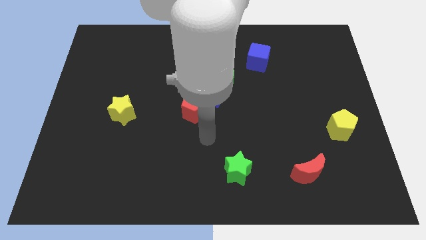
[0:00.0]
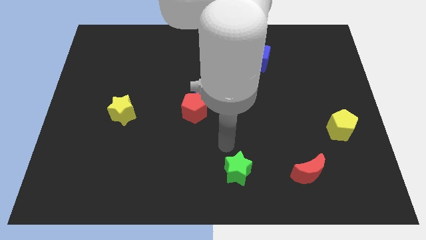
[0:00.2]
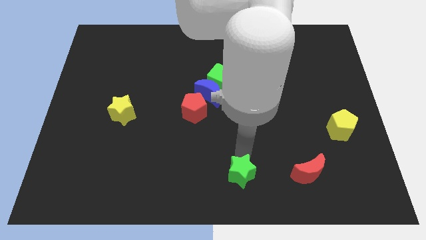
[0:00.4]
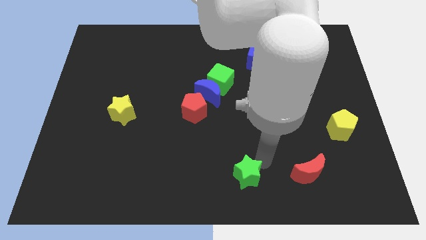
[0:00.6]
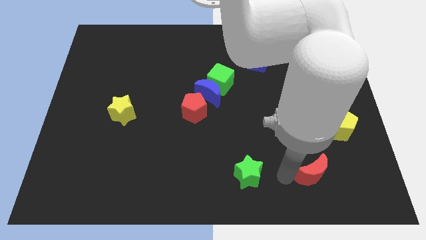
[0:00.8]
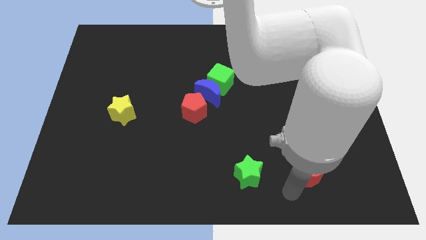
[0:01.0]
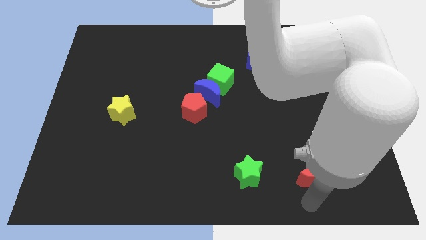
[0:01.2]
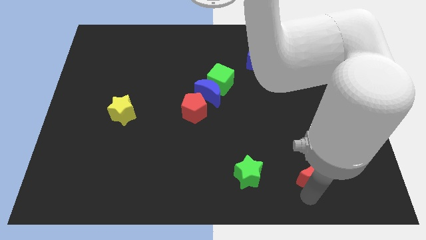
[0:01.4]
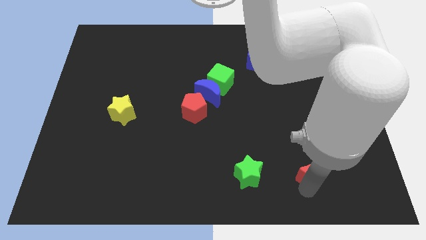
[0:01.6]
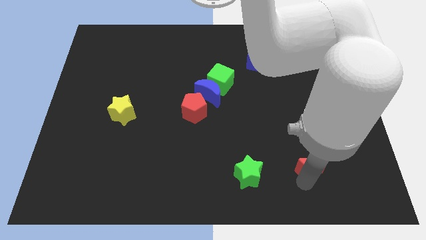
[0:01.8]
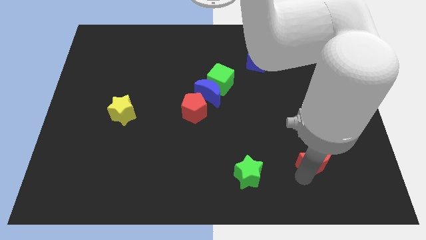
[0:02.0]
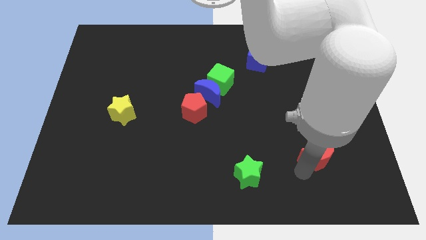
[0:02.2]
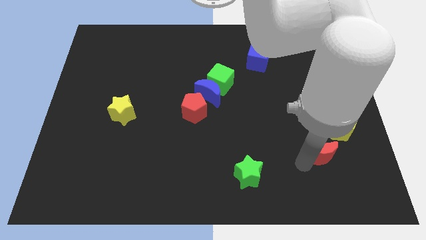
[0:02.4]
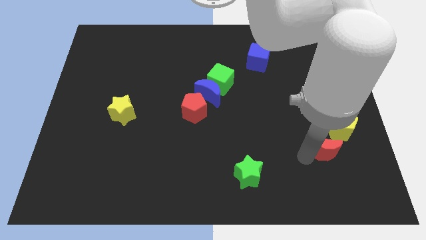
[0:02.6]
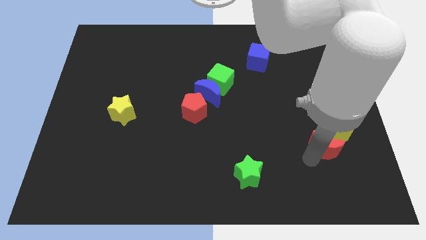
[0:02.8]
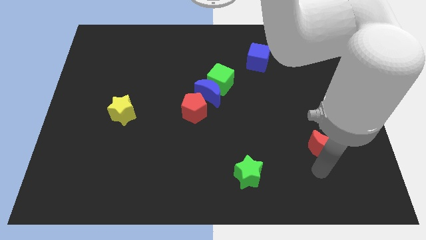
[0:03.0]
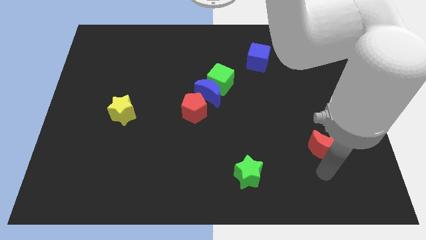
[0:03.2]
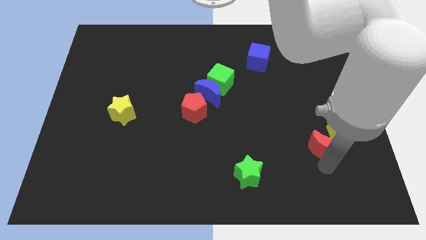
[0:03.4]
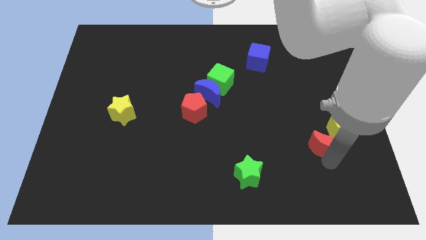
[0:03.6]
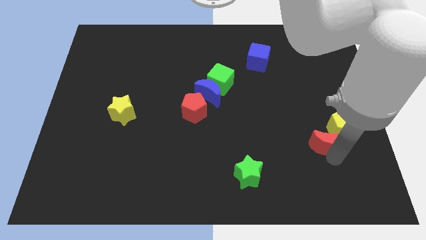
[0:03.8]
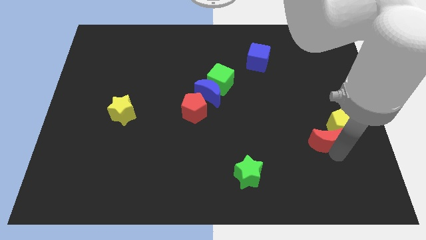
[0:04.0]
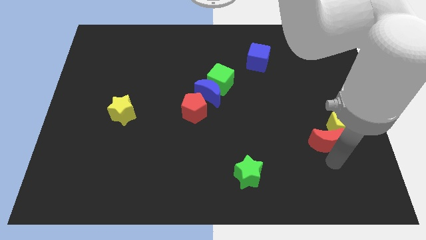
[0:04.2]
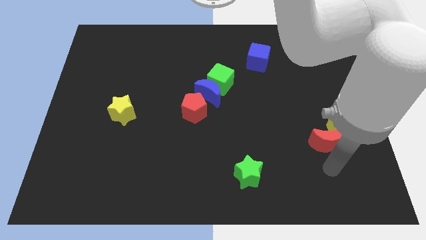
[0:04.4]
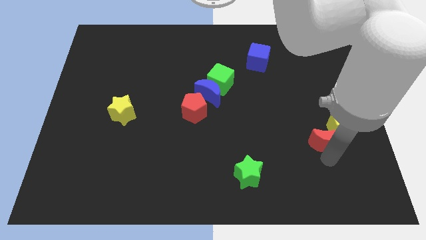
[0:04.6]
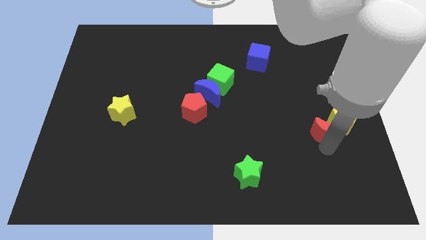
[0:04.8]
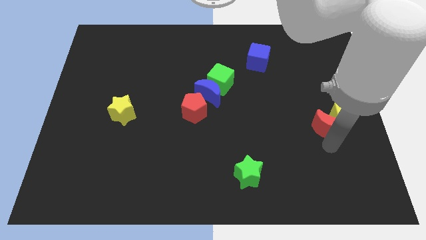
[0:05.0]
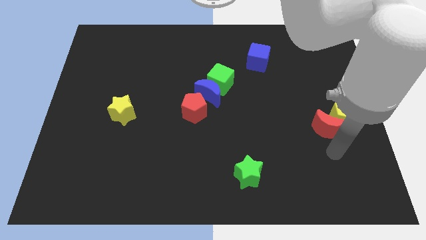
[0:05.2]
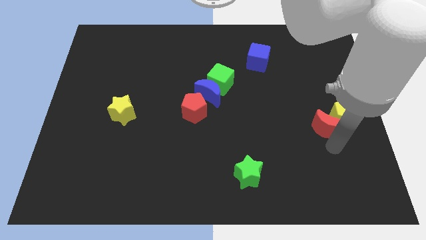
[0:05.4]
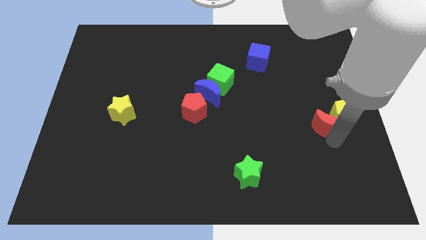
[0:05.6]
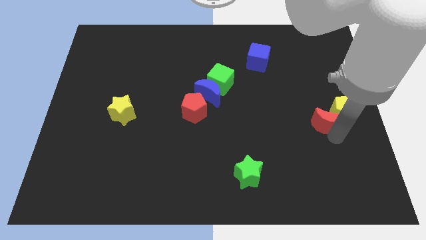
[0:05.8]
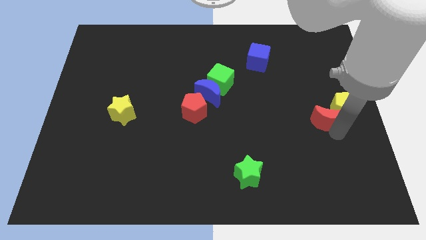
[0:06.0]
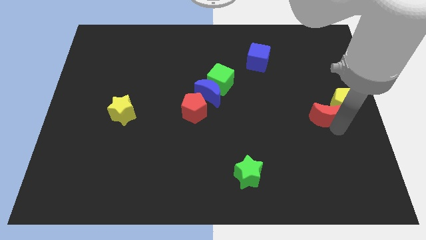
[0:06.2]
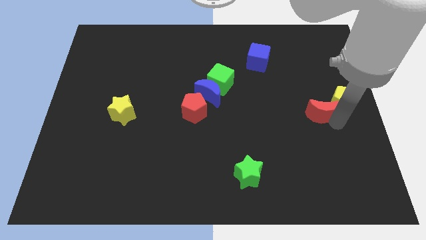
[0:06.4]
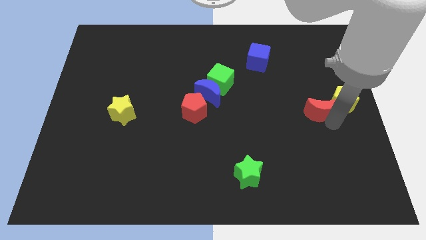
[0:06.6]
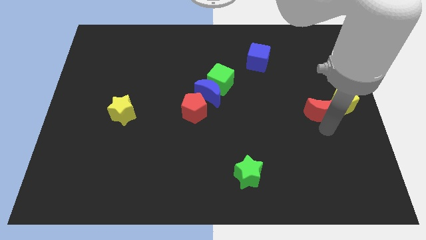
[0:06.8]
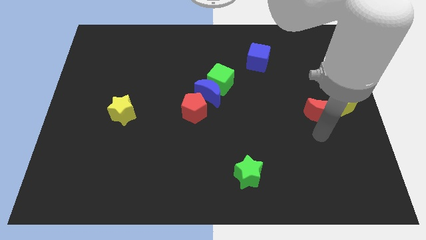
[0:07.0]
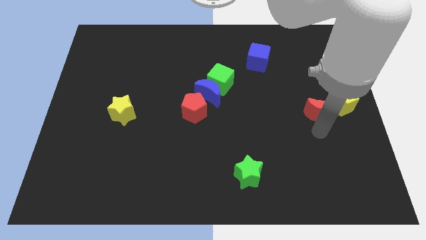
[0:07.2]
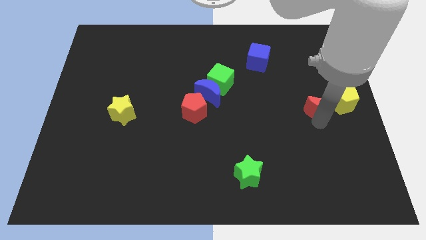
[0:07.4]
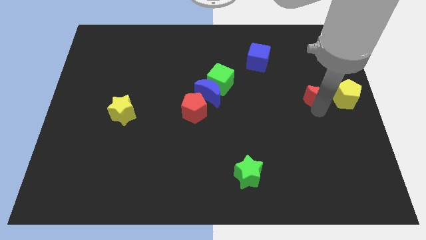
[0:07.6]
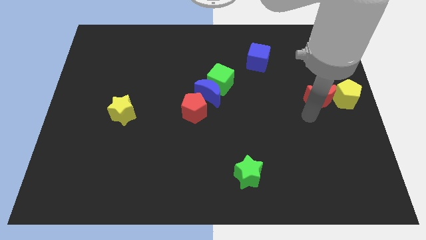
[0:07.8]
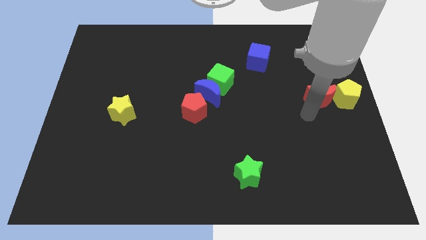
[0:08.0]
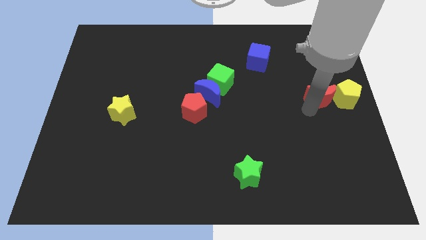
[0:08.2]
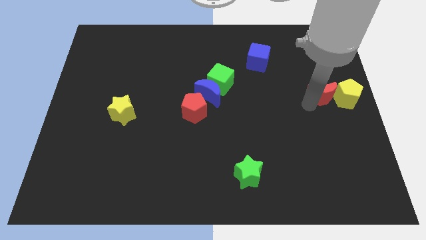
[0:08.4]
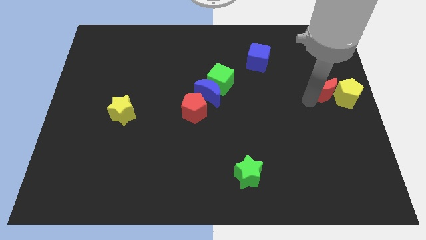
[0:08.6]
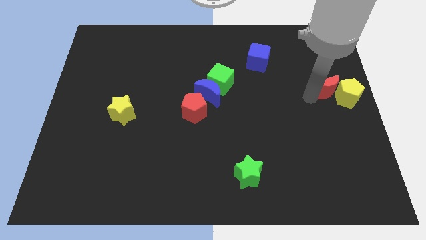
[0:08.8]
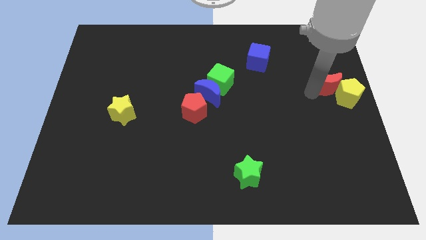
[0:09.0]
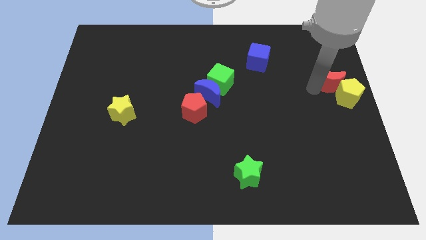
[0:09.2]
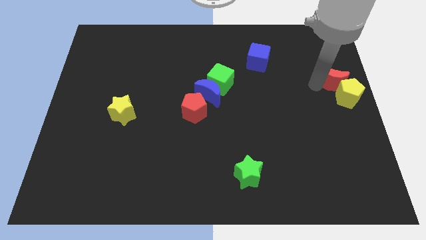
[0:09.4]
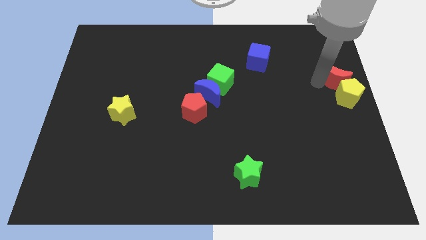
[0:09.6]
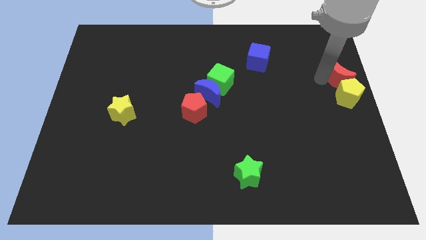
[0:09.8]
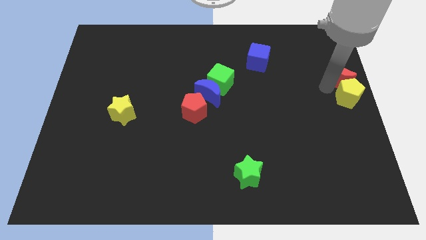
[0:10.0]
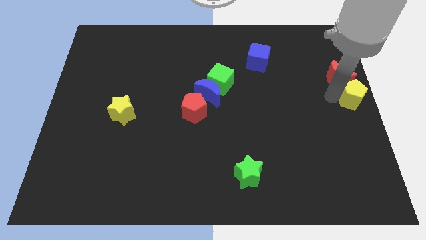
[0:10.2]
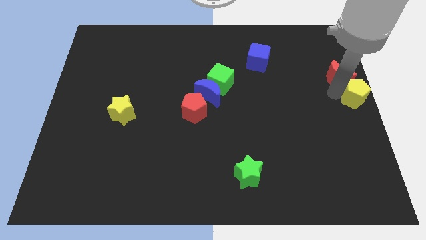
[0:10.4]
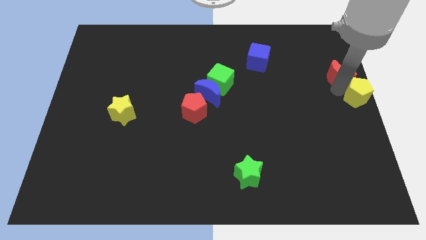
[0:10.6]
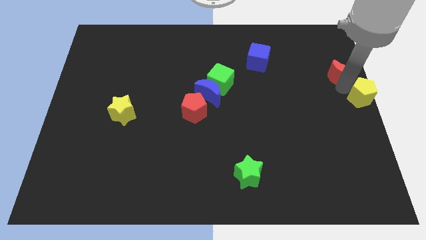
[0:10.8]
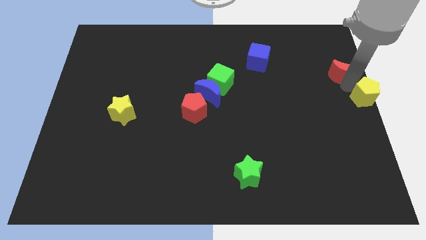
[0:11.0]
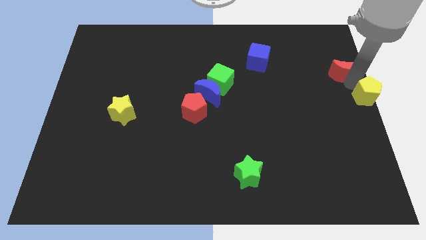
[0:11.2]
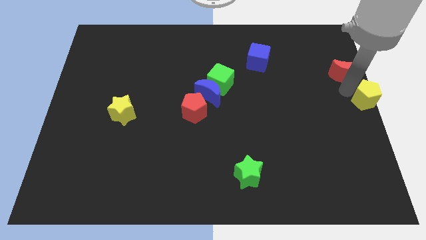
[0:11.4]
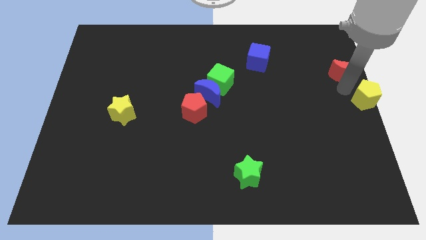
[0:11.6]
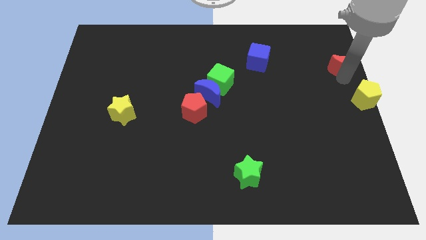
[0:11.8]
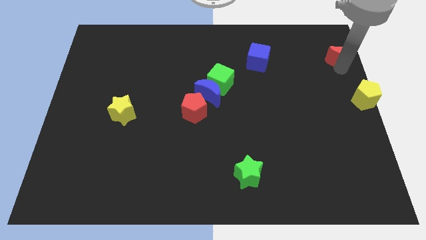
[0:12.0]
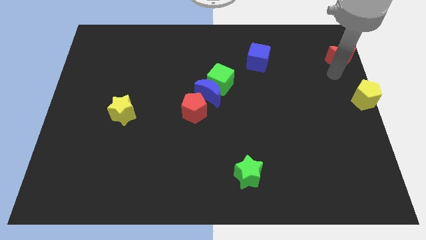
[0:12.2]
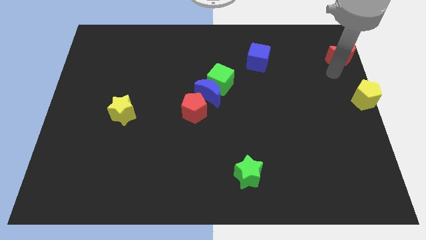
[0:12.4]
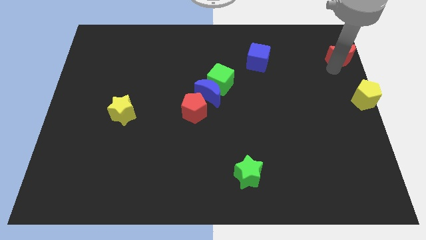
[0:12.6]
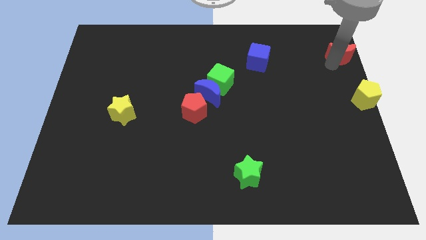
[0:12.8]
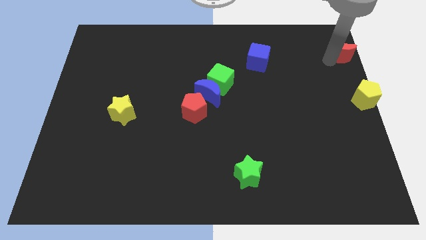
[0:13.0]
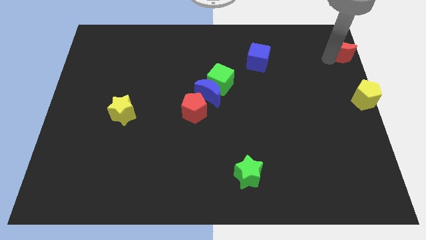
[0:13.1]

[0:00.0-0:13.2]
put the red moon to the top right corner
